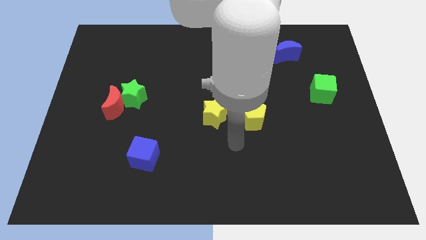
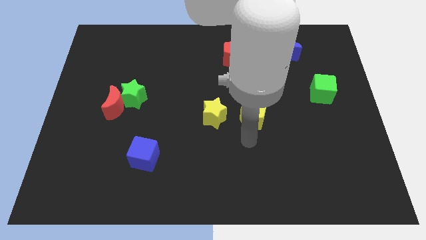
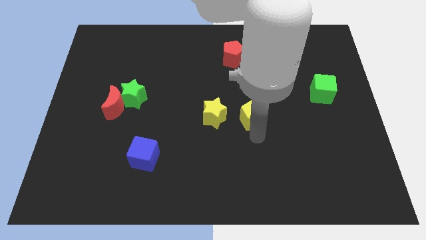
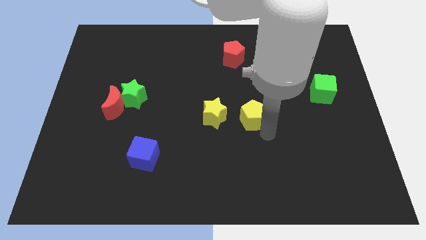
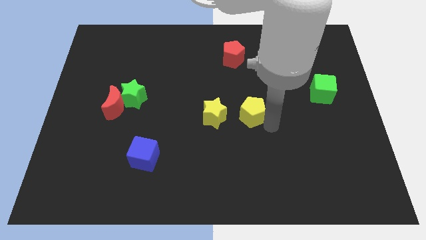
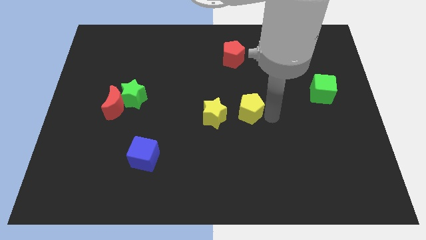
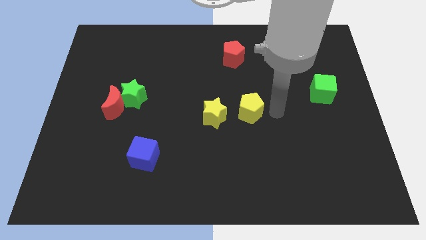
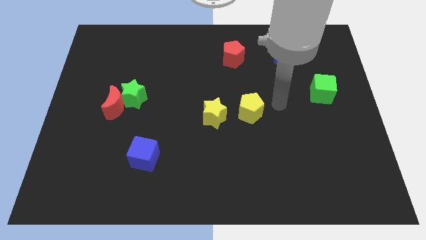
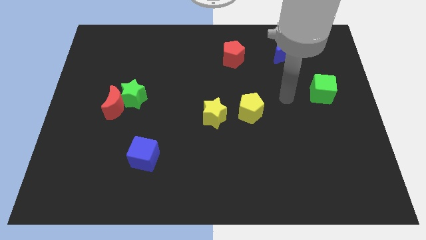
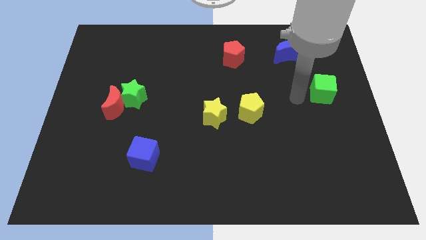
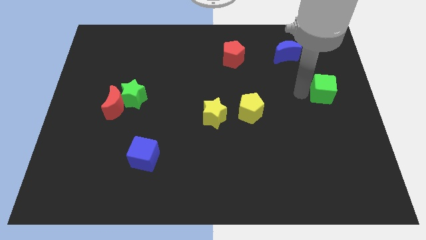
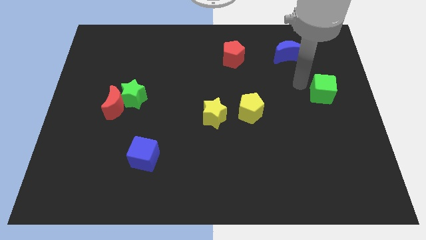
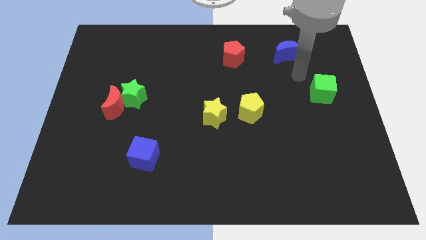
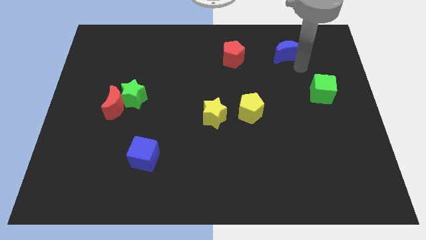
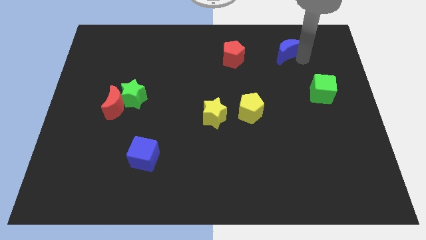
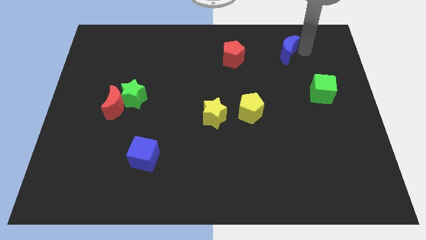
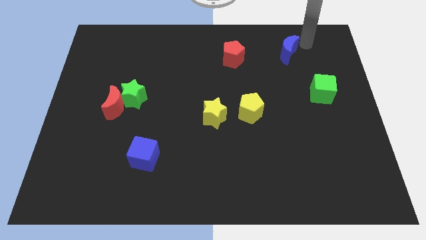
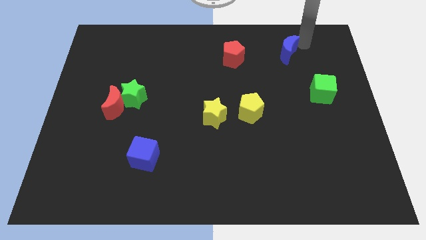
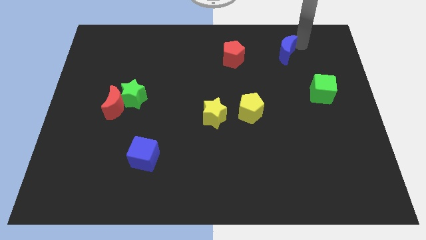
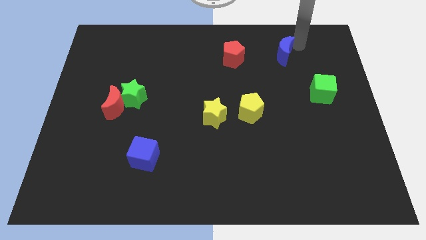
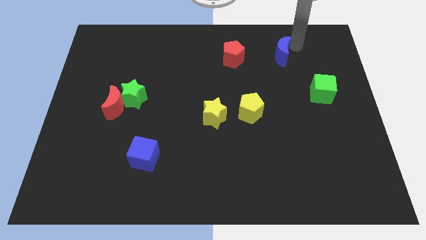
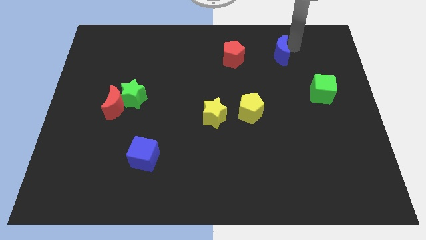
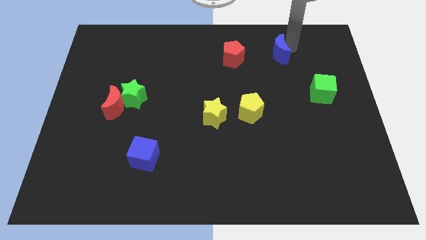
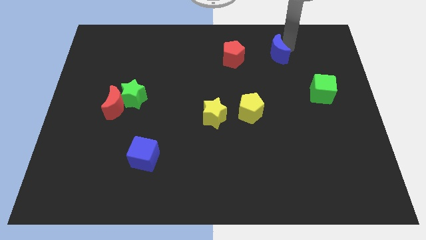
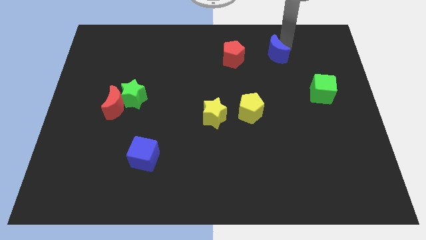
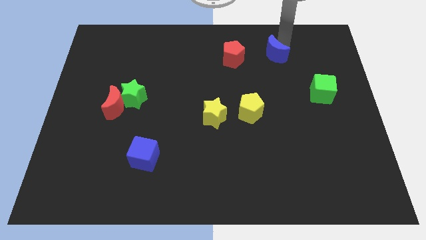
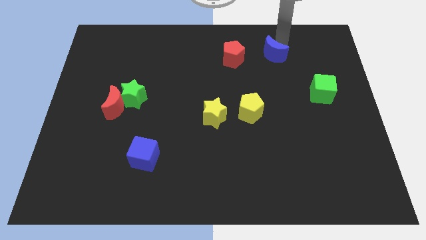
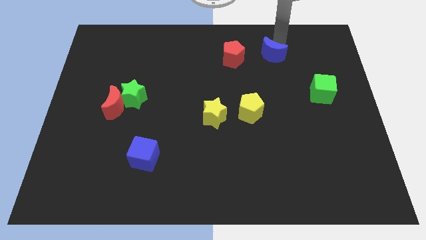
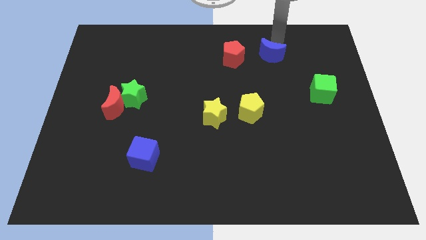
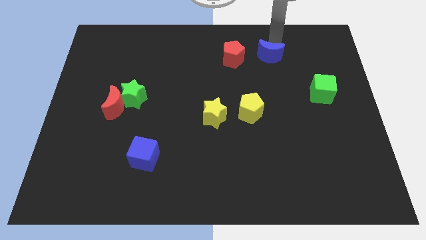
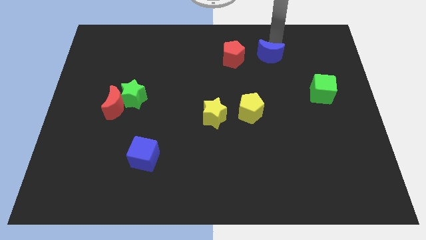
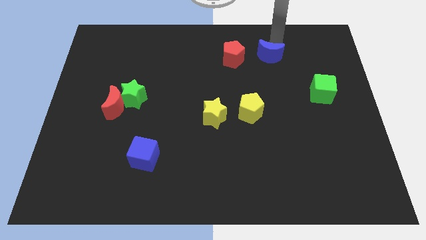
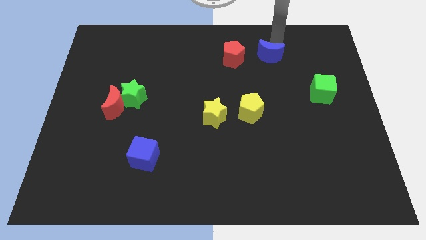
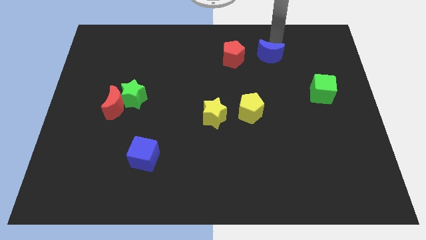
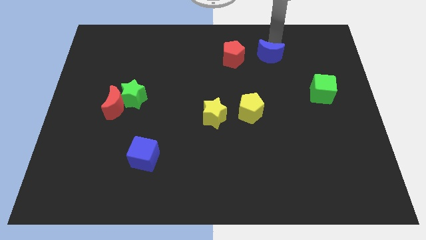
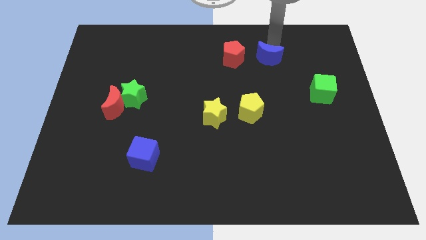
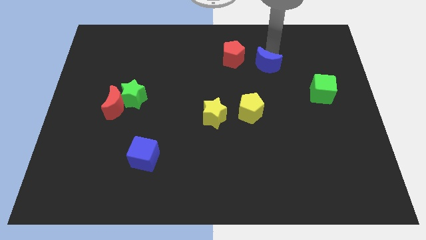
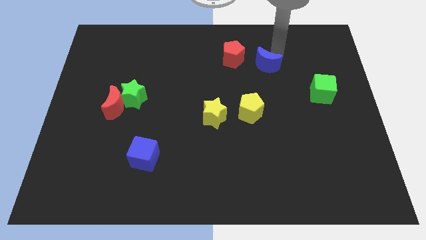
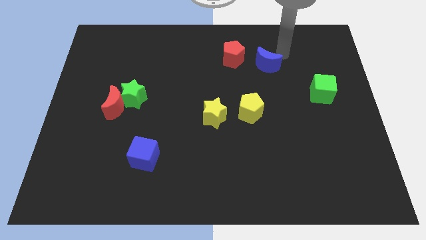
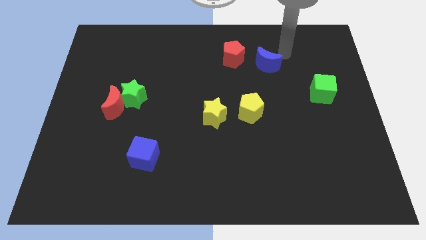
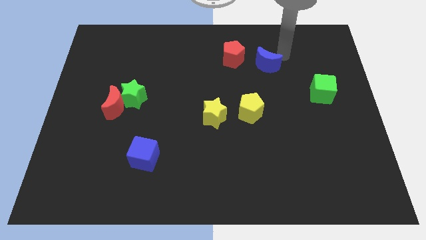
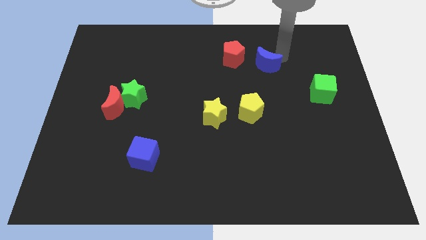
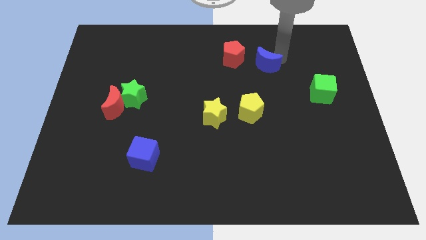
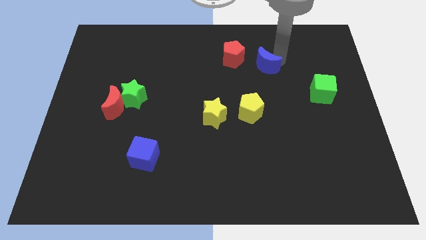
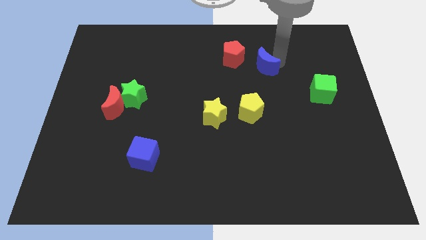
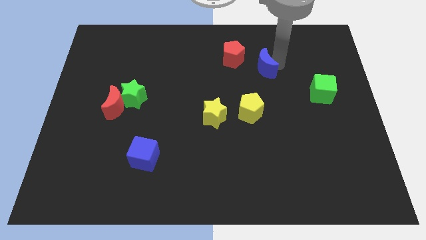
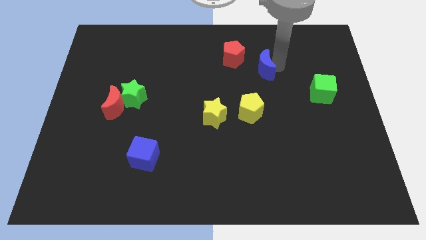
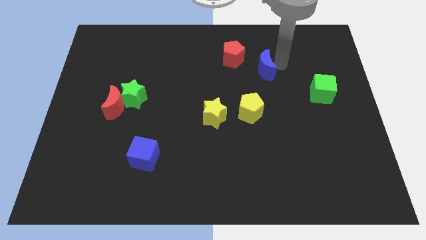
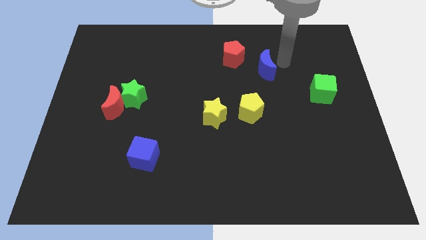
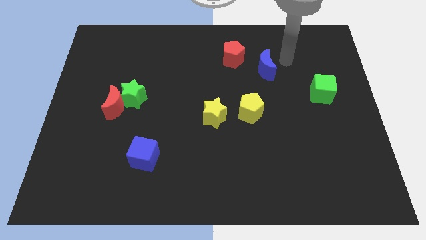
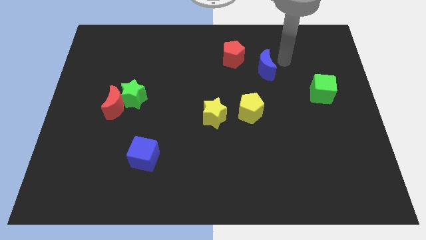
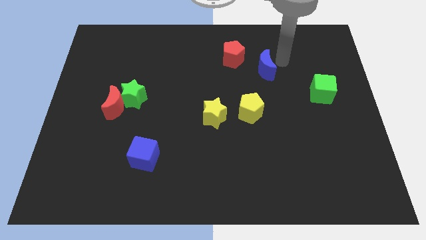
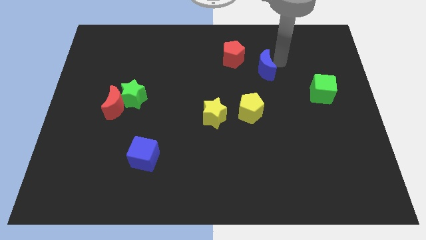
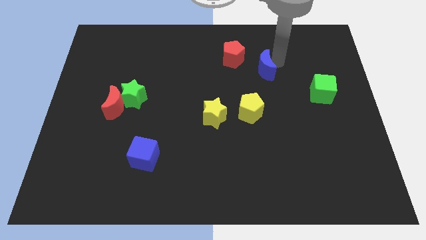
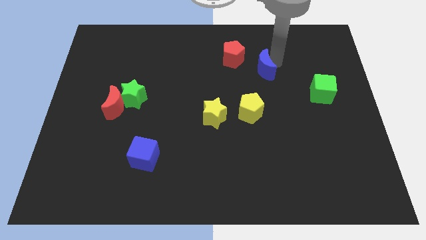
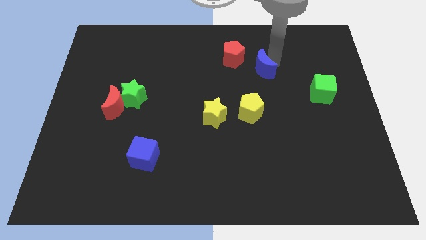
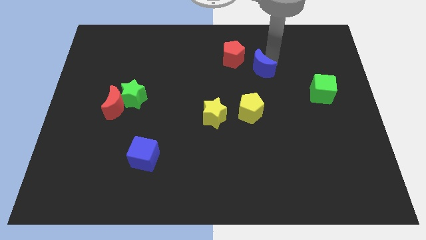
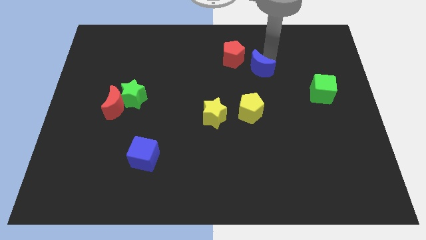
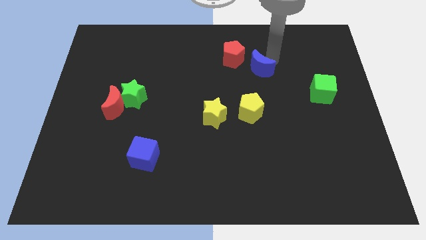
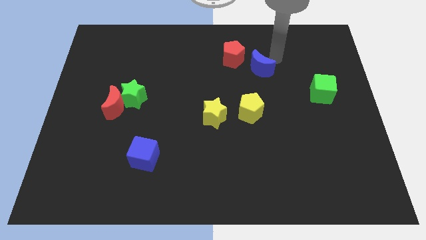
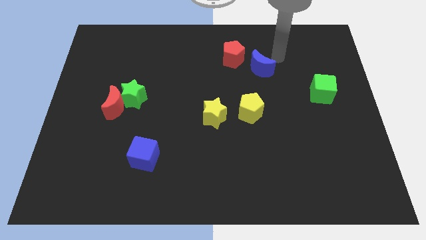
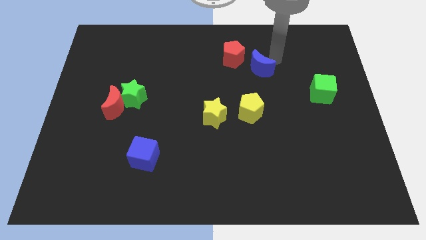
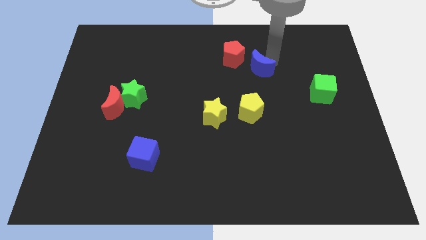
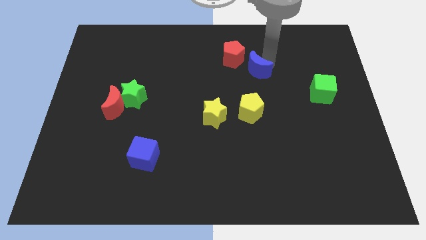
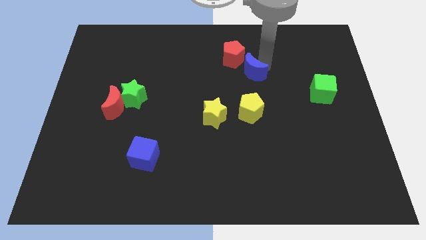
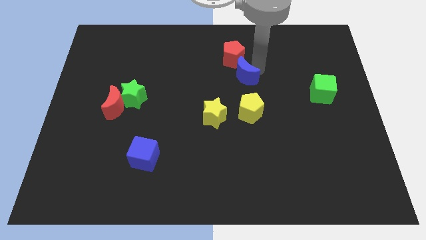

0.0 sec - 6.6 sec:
move the blue moon to the middle of the board
